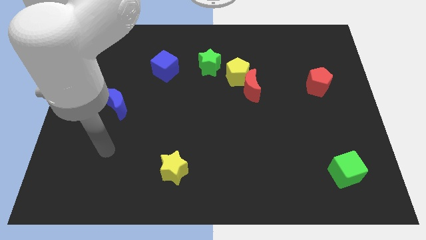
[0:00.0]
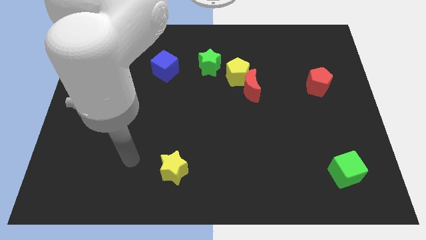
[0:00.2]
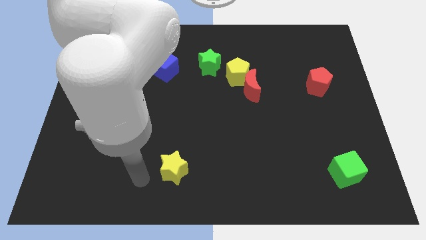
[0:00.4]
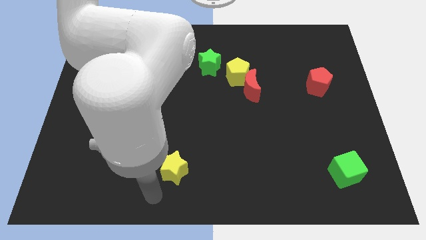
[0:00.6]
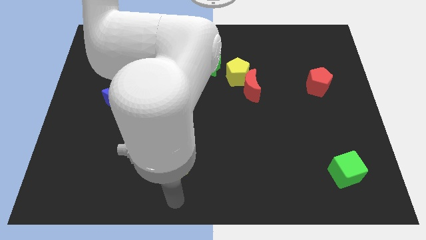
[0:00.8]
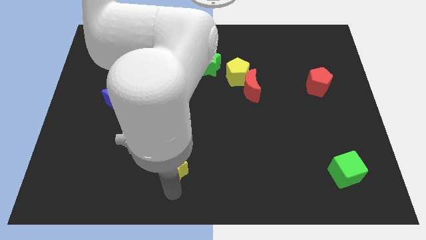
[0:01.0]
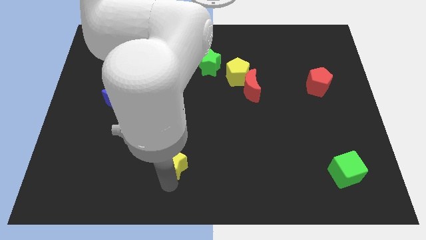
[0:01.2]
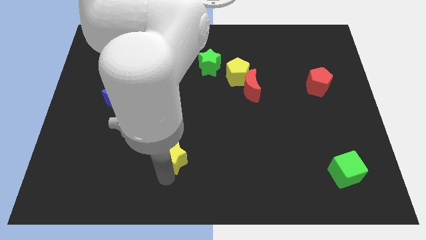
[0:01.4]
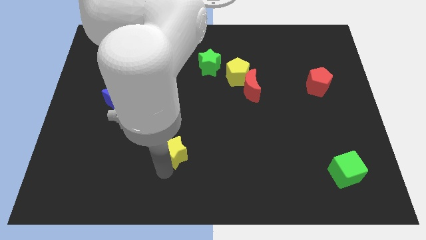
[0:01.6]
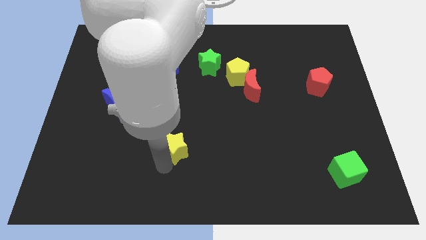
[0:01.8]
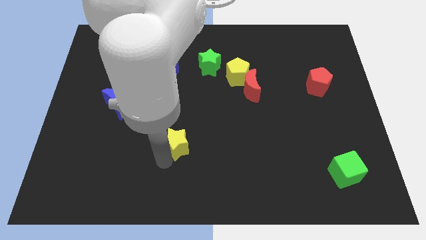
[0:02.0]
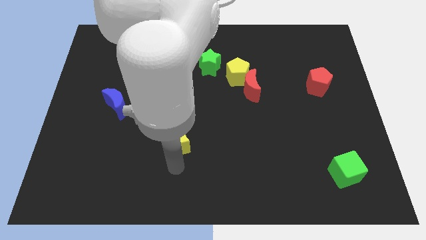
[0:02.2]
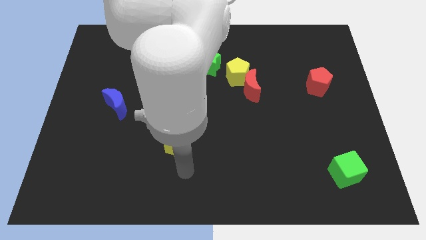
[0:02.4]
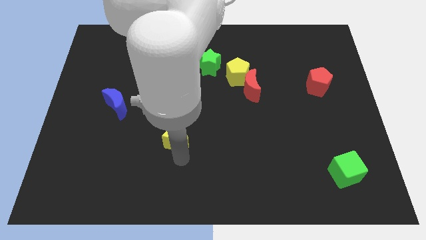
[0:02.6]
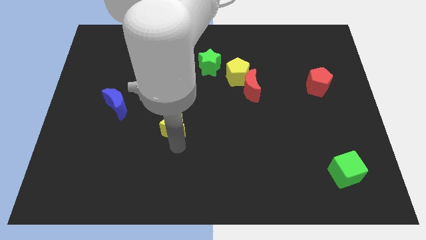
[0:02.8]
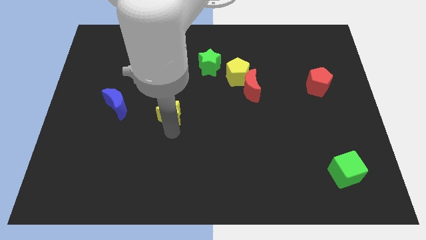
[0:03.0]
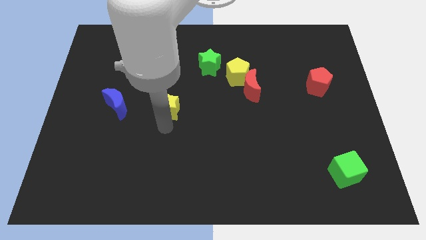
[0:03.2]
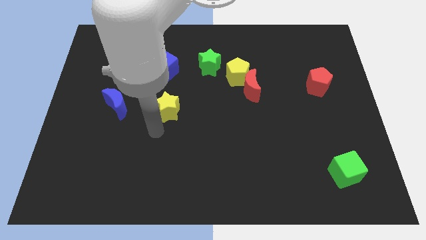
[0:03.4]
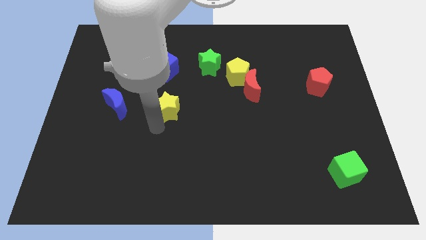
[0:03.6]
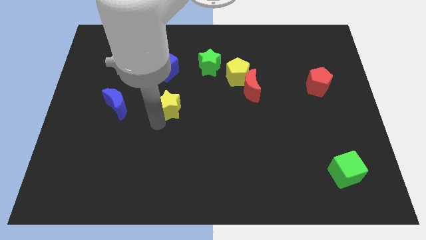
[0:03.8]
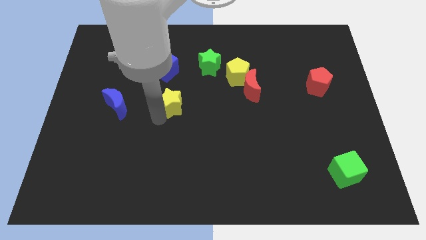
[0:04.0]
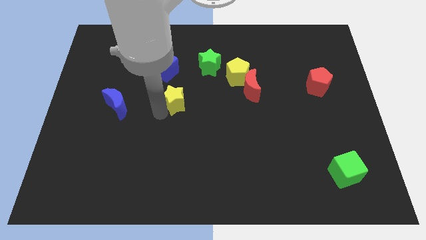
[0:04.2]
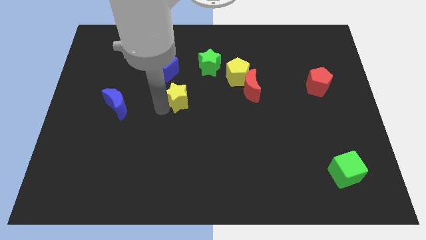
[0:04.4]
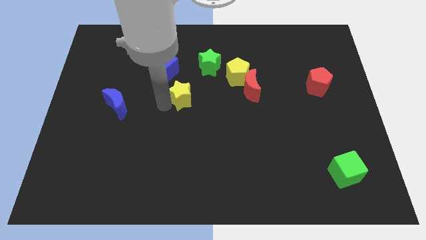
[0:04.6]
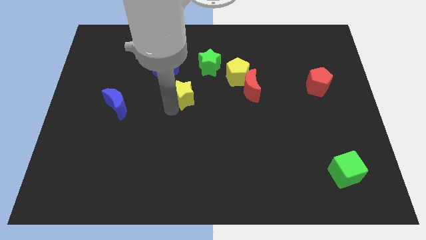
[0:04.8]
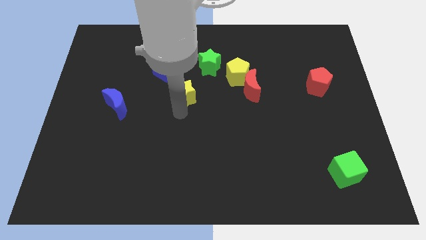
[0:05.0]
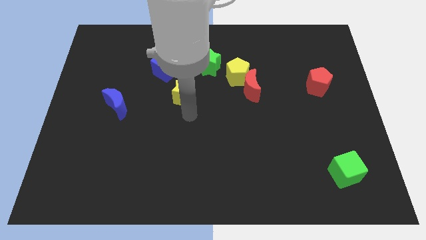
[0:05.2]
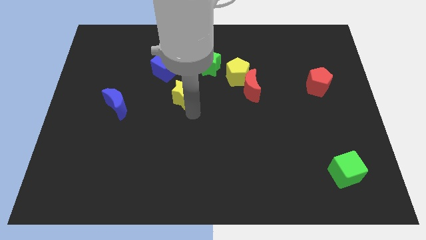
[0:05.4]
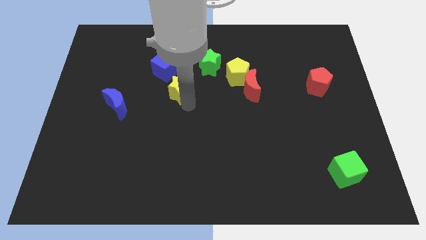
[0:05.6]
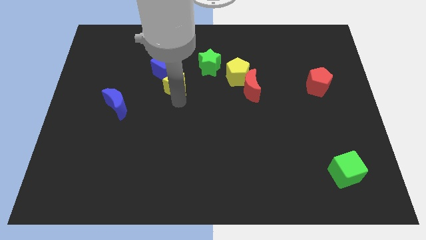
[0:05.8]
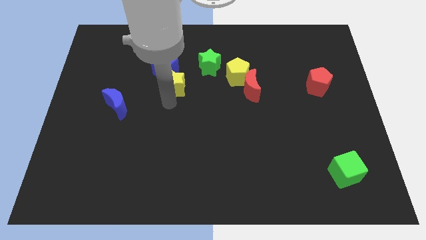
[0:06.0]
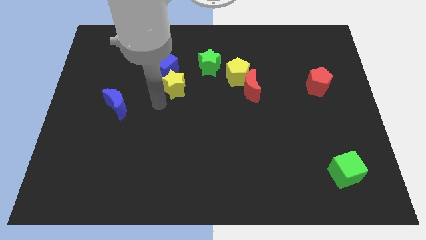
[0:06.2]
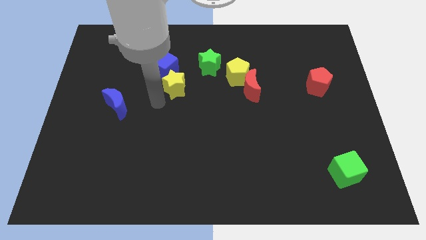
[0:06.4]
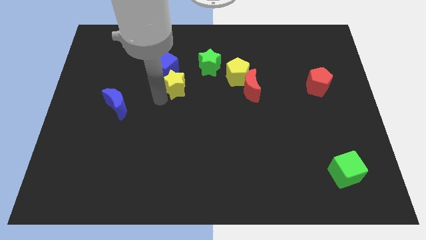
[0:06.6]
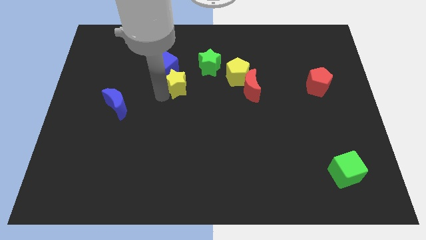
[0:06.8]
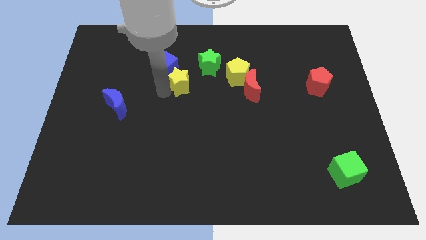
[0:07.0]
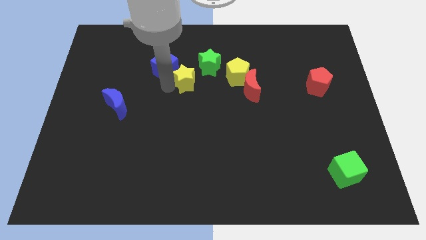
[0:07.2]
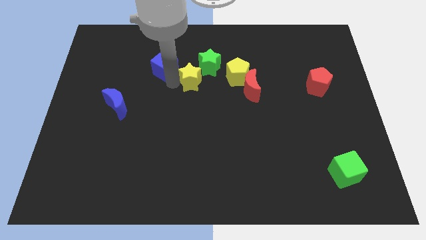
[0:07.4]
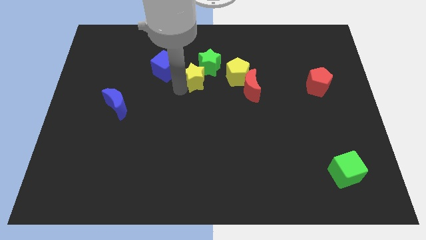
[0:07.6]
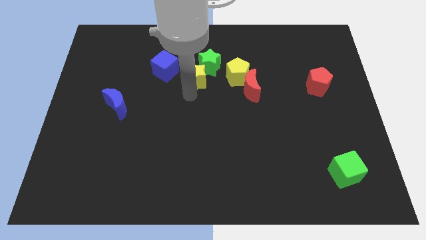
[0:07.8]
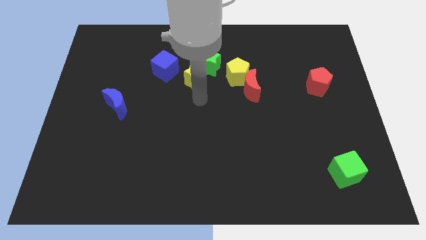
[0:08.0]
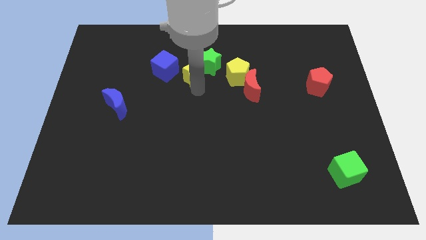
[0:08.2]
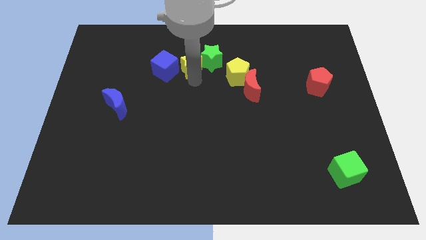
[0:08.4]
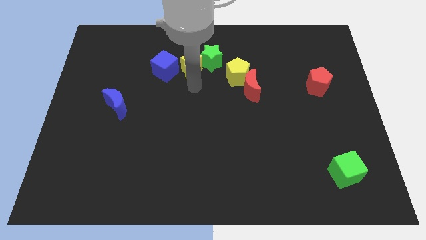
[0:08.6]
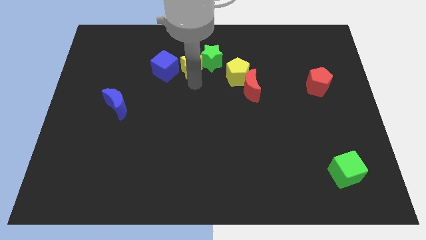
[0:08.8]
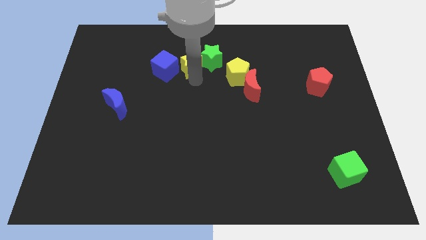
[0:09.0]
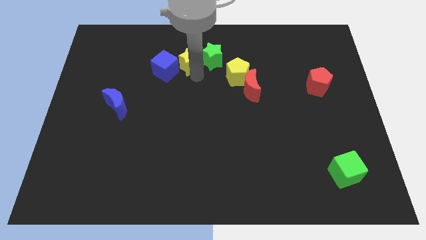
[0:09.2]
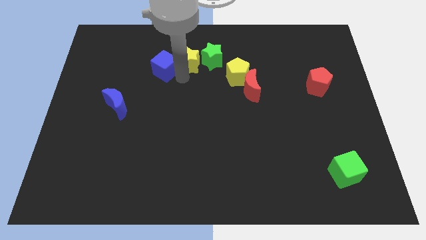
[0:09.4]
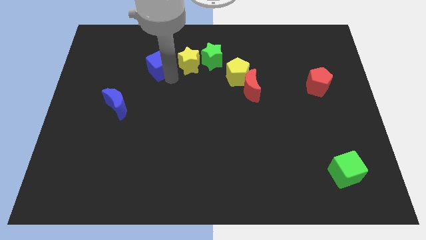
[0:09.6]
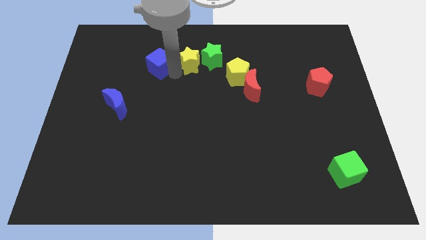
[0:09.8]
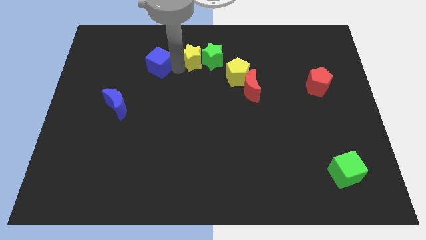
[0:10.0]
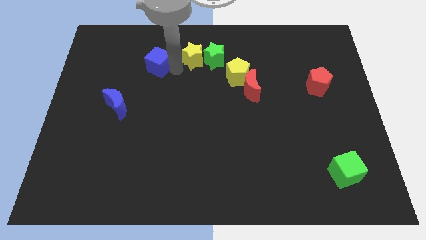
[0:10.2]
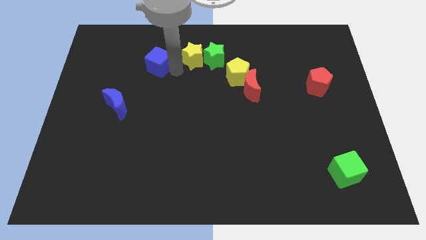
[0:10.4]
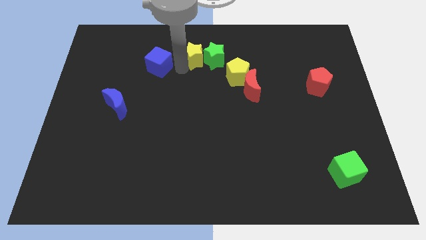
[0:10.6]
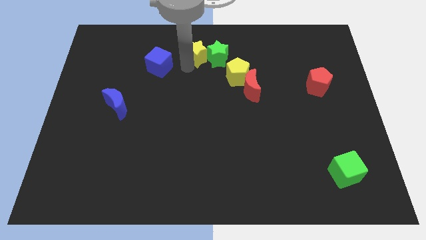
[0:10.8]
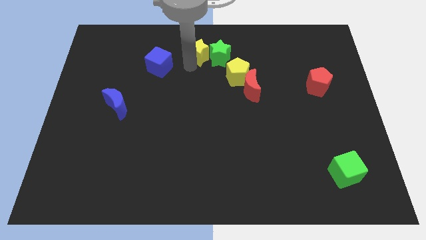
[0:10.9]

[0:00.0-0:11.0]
move the yellow star to the top
